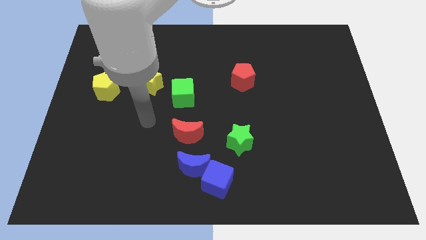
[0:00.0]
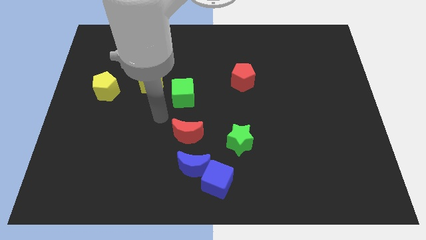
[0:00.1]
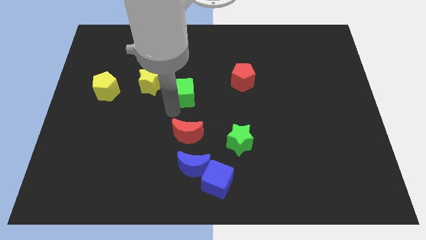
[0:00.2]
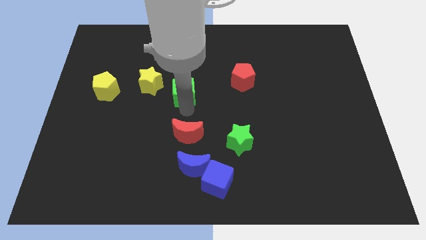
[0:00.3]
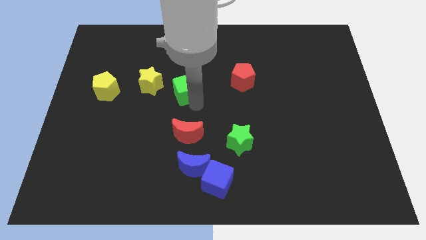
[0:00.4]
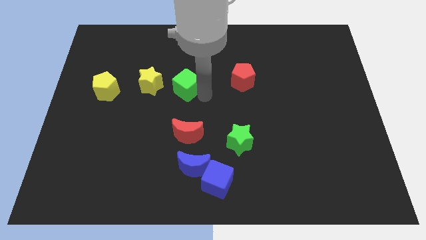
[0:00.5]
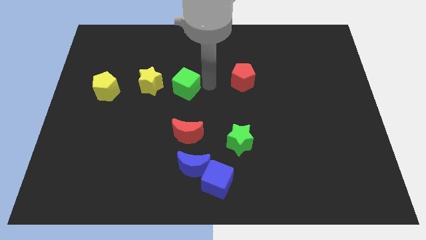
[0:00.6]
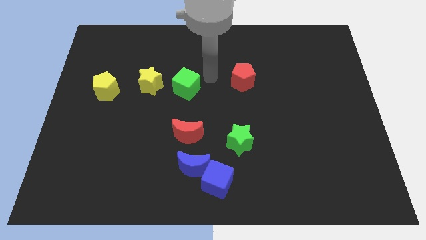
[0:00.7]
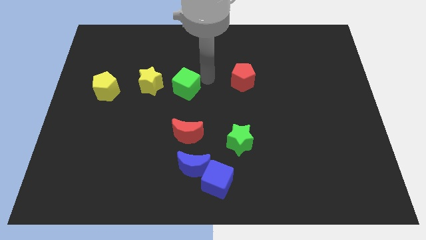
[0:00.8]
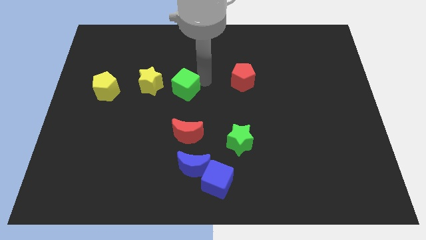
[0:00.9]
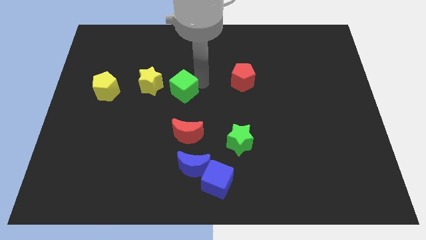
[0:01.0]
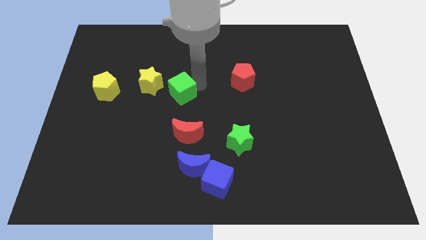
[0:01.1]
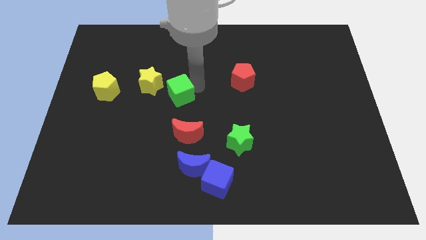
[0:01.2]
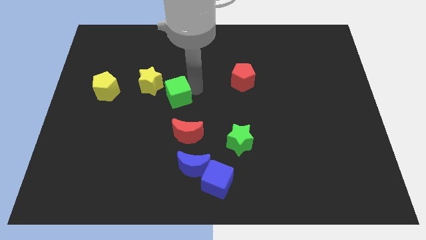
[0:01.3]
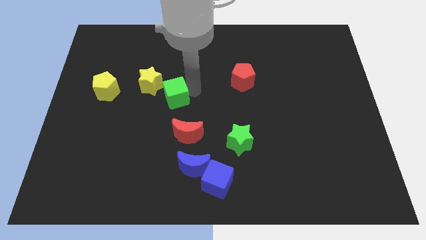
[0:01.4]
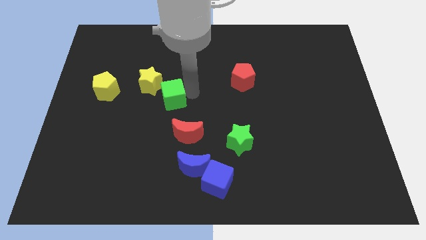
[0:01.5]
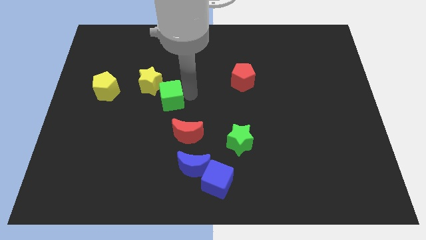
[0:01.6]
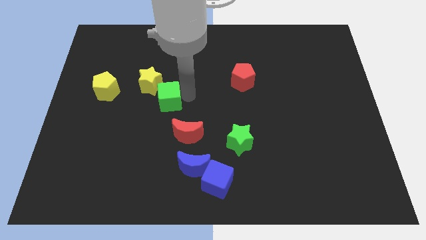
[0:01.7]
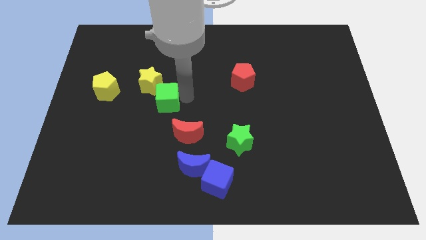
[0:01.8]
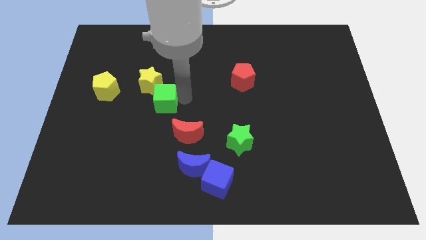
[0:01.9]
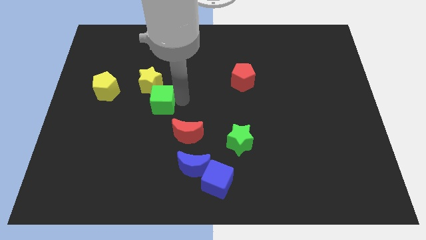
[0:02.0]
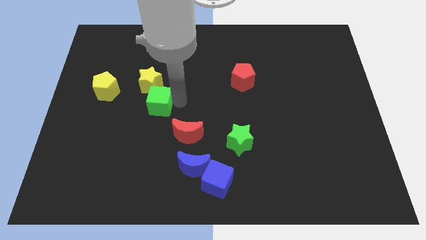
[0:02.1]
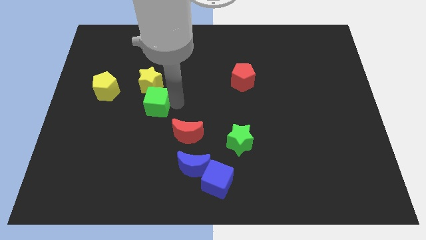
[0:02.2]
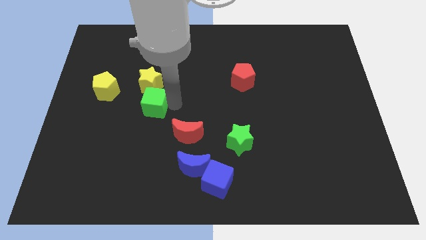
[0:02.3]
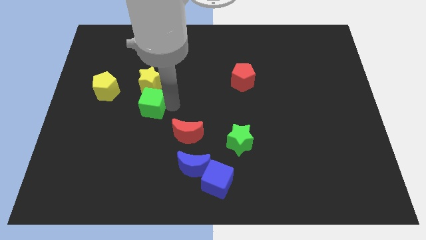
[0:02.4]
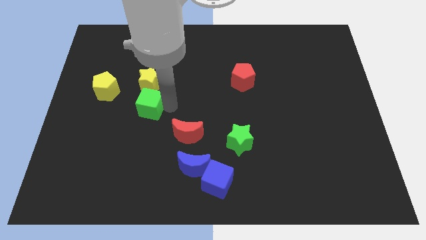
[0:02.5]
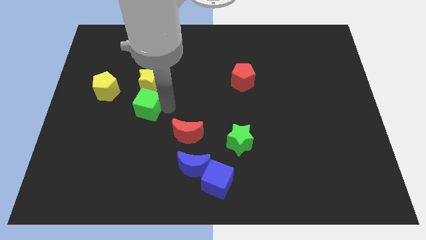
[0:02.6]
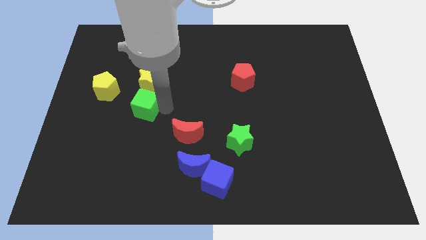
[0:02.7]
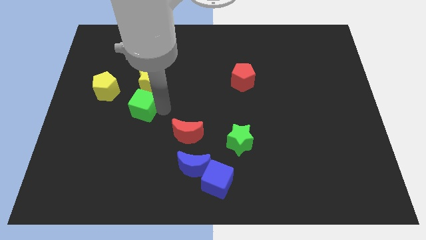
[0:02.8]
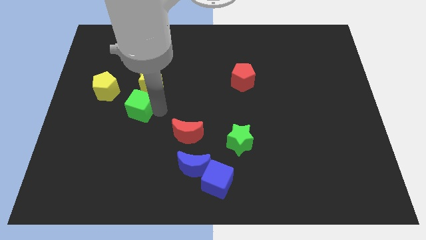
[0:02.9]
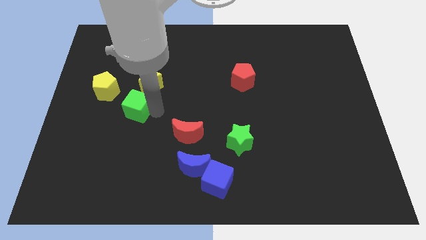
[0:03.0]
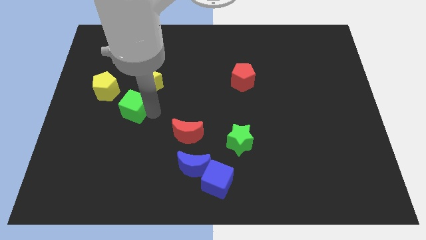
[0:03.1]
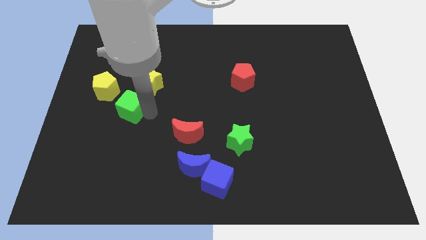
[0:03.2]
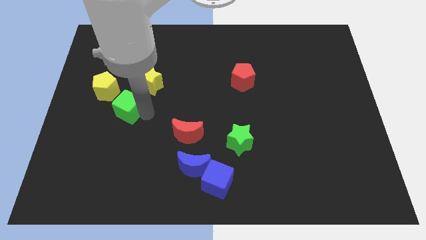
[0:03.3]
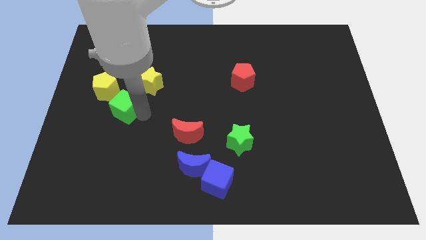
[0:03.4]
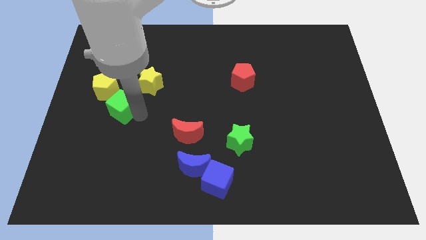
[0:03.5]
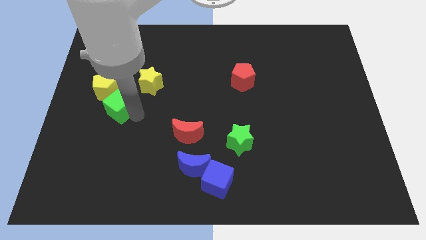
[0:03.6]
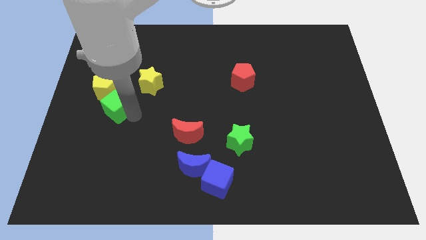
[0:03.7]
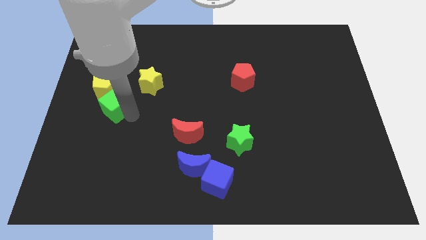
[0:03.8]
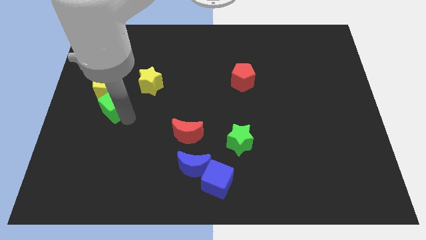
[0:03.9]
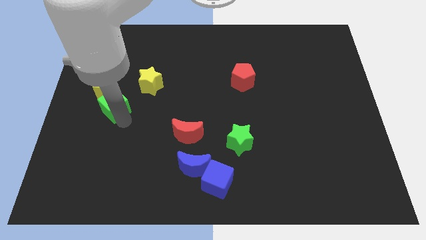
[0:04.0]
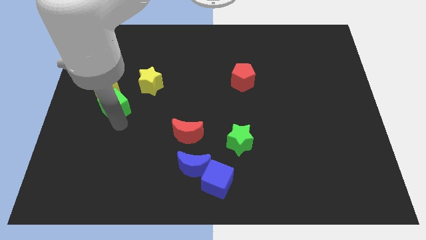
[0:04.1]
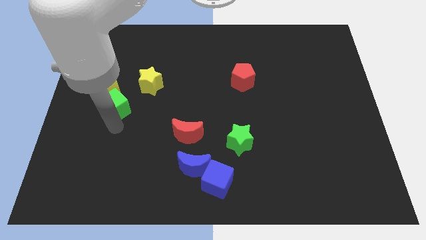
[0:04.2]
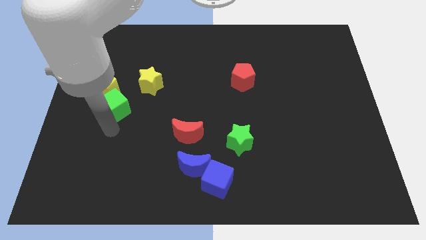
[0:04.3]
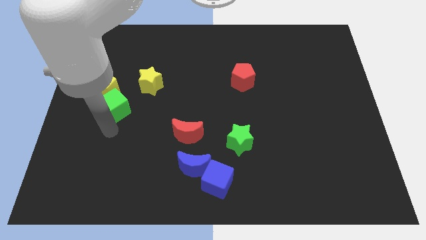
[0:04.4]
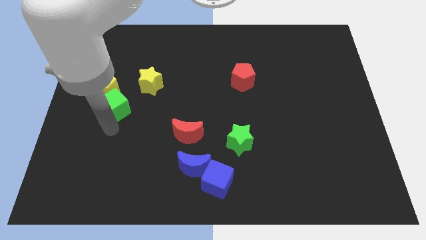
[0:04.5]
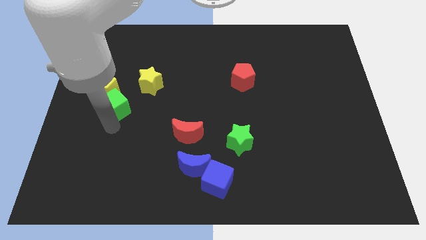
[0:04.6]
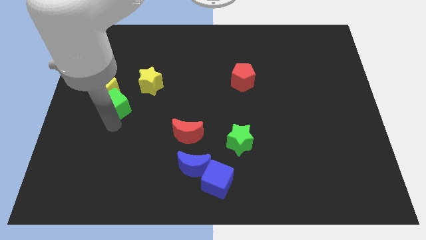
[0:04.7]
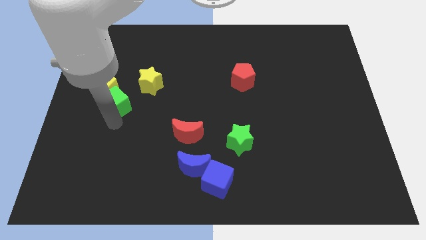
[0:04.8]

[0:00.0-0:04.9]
slide the green cube close to the yellow pentagon

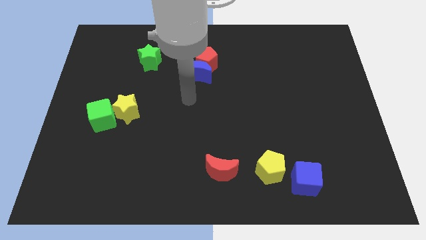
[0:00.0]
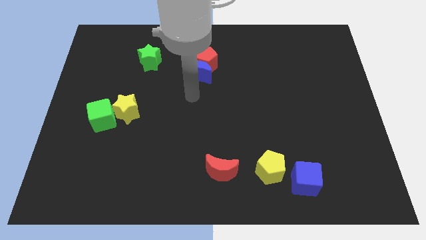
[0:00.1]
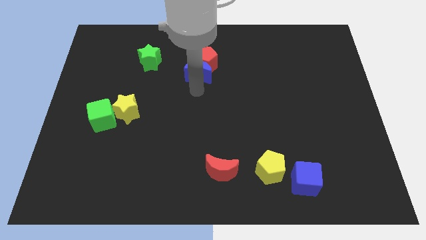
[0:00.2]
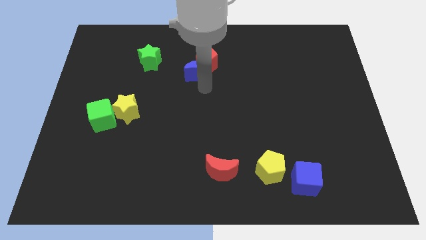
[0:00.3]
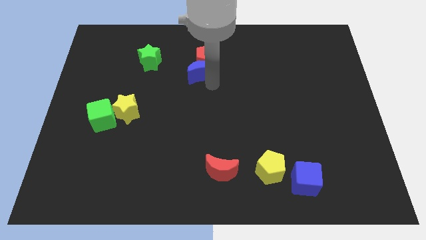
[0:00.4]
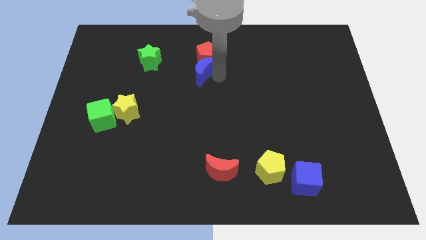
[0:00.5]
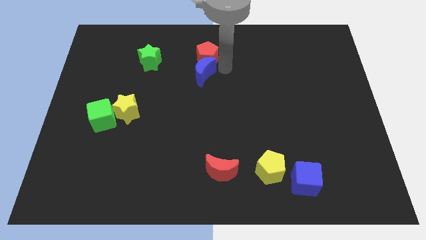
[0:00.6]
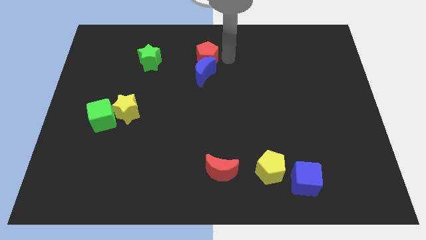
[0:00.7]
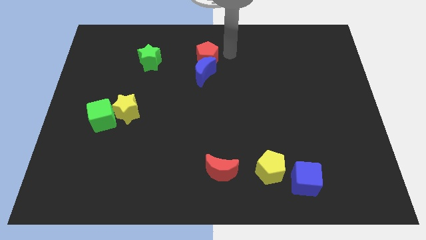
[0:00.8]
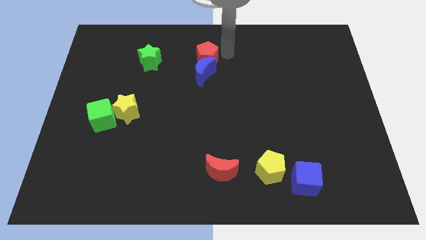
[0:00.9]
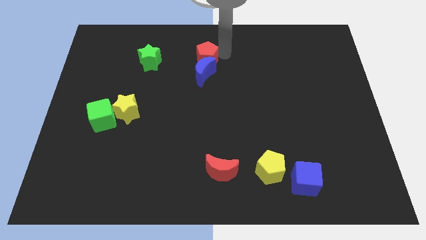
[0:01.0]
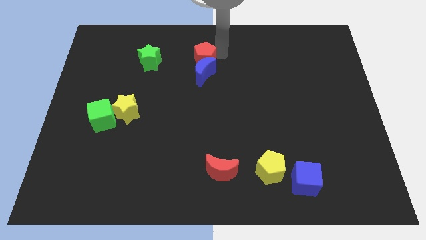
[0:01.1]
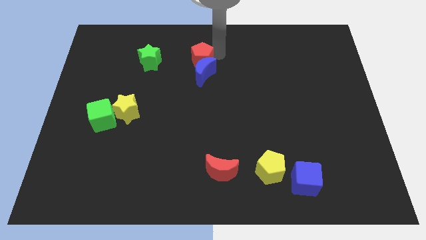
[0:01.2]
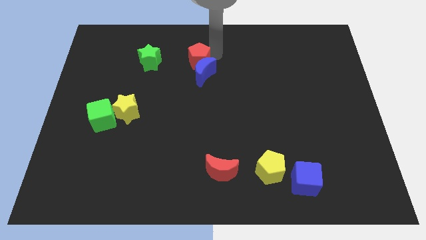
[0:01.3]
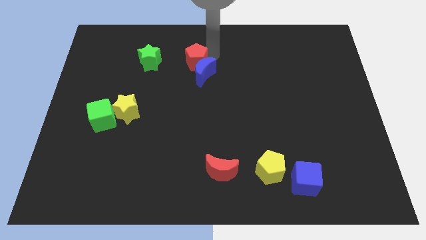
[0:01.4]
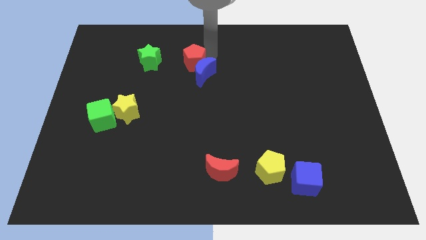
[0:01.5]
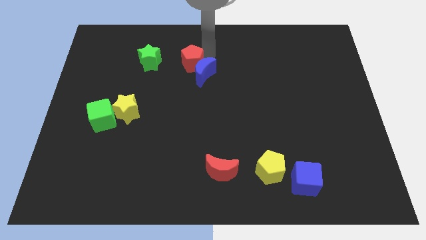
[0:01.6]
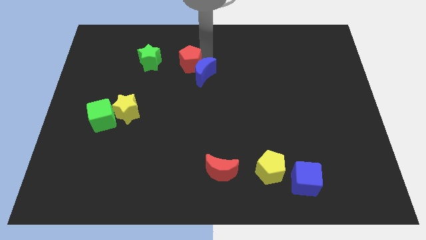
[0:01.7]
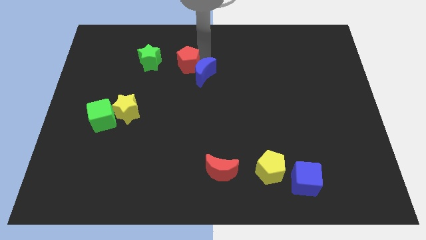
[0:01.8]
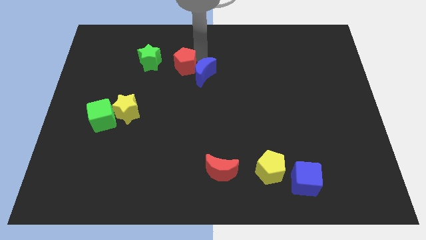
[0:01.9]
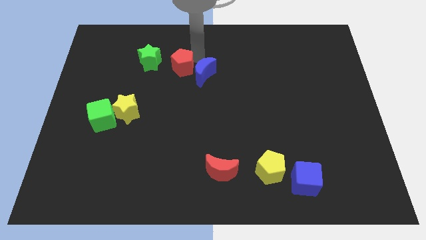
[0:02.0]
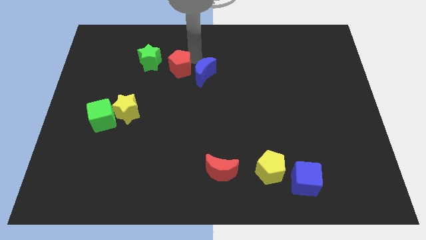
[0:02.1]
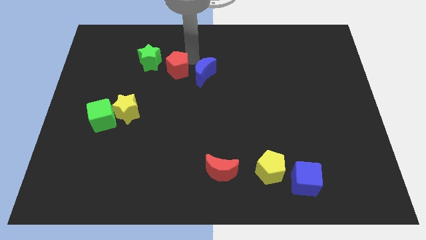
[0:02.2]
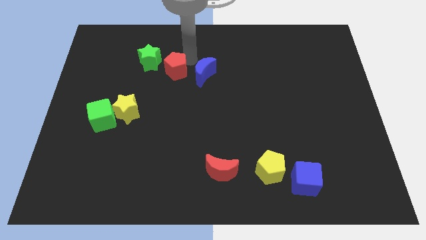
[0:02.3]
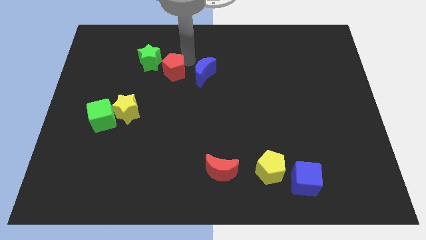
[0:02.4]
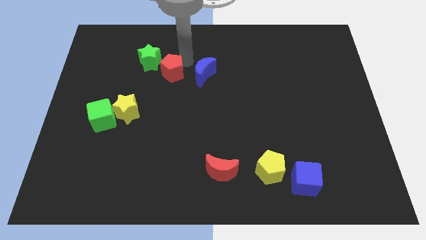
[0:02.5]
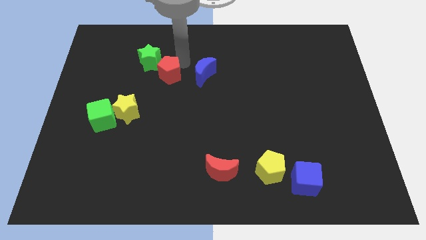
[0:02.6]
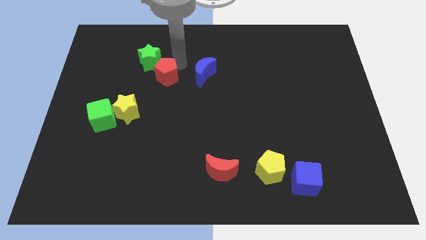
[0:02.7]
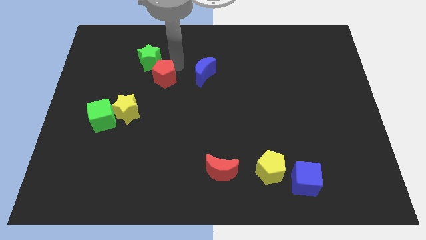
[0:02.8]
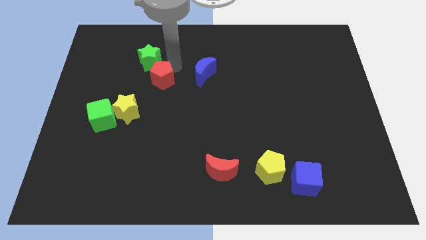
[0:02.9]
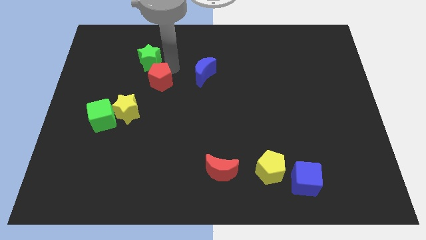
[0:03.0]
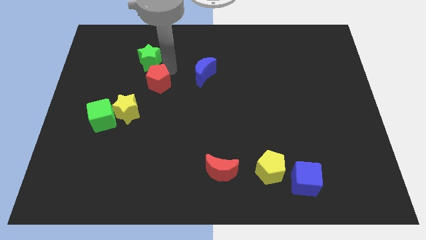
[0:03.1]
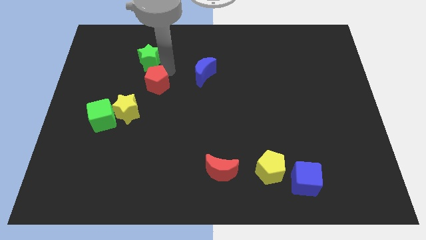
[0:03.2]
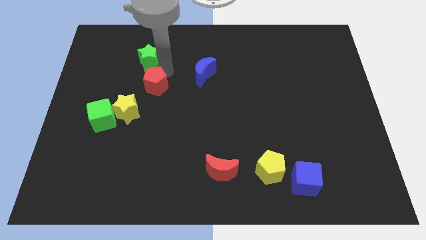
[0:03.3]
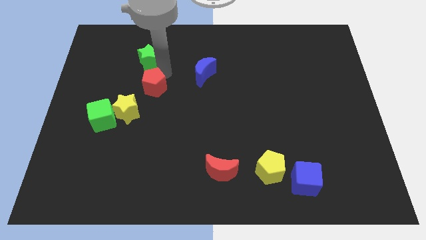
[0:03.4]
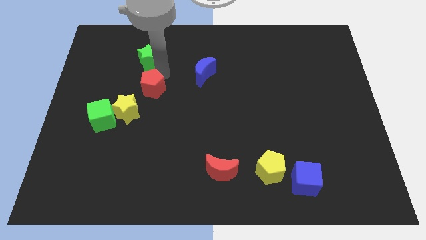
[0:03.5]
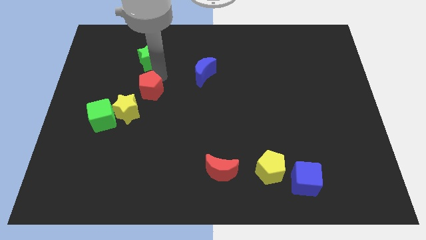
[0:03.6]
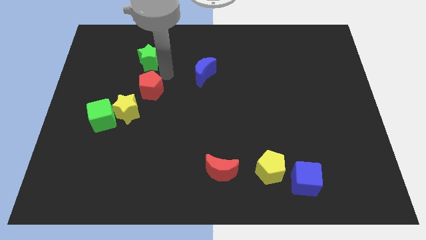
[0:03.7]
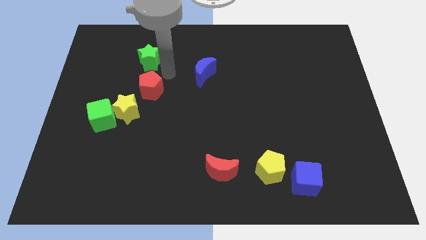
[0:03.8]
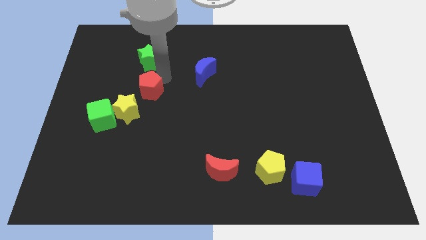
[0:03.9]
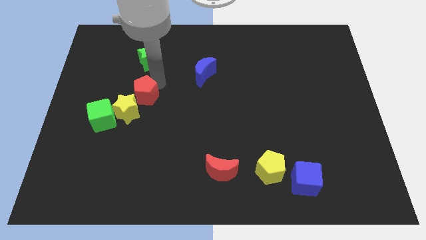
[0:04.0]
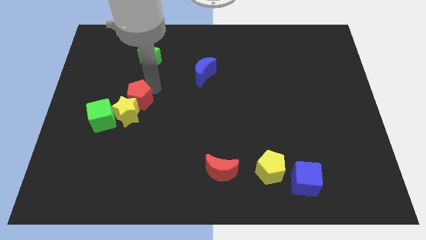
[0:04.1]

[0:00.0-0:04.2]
put the red pentagon towards the yellow star
